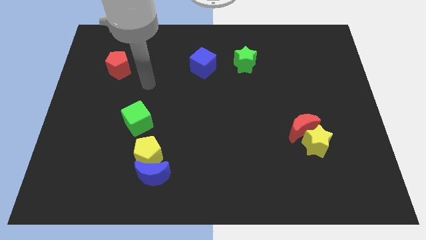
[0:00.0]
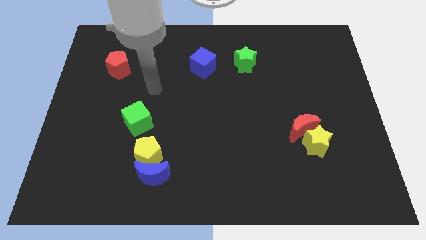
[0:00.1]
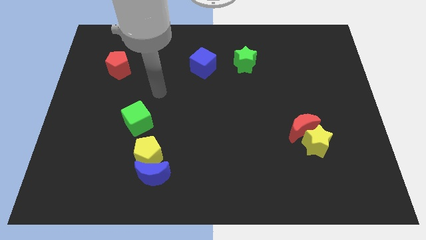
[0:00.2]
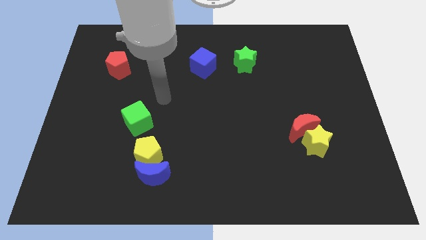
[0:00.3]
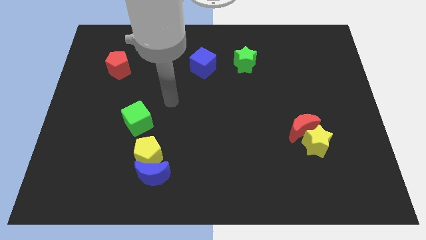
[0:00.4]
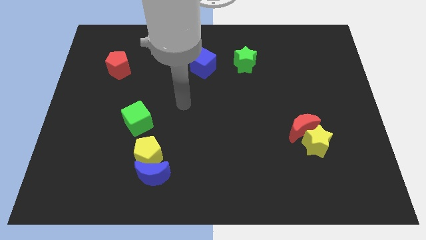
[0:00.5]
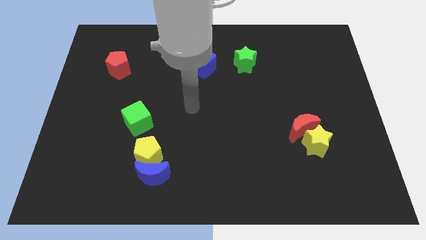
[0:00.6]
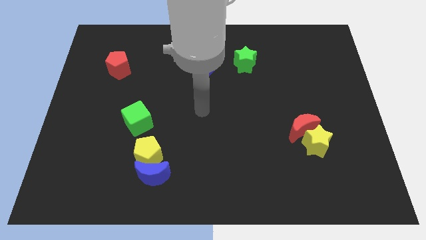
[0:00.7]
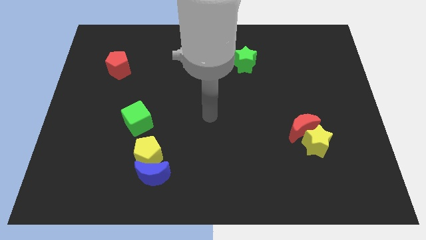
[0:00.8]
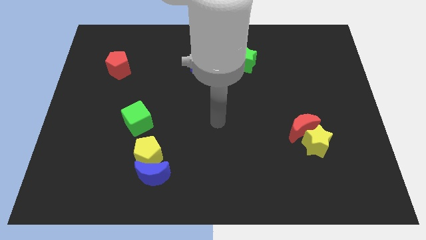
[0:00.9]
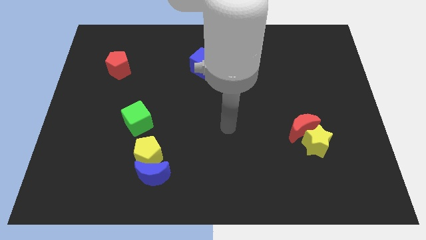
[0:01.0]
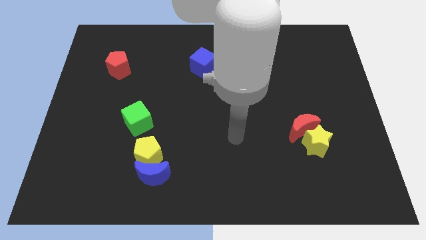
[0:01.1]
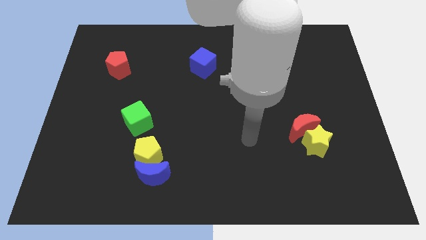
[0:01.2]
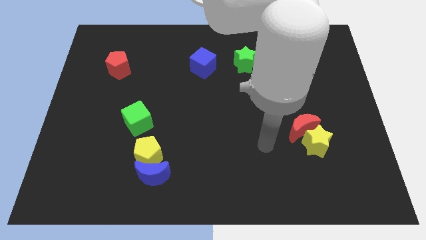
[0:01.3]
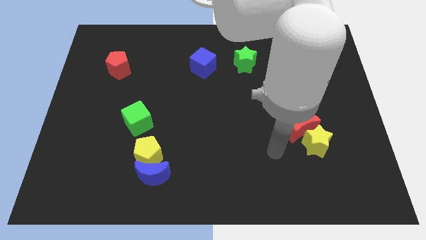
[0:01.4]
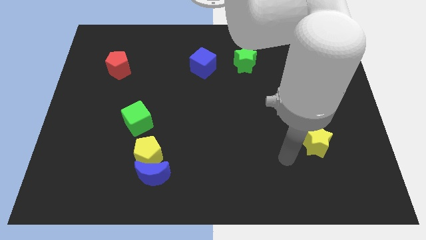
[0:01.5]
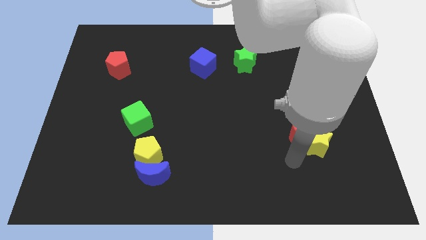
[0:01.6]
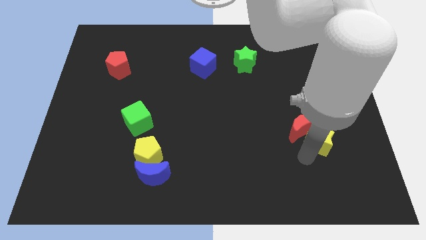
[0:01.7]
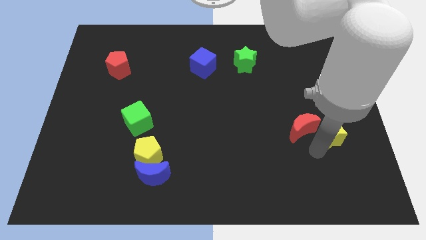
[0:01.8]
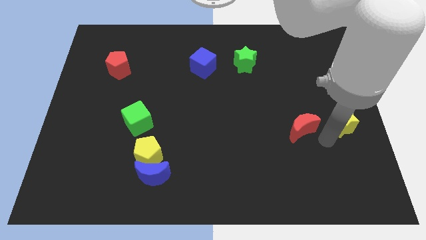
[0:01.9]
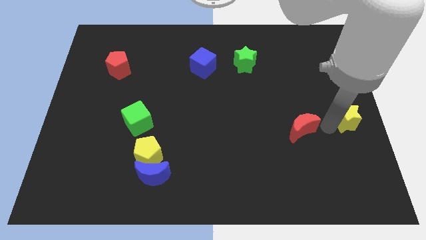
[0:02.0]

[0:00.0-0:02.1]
separate the red moon from the yellow star

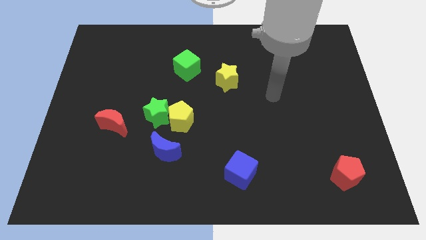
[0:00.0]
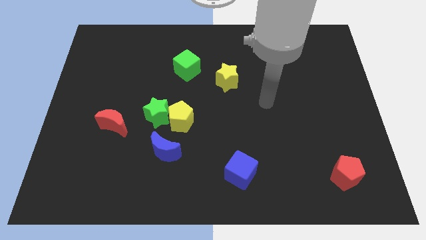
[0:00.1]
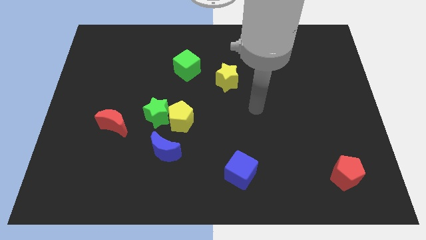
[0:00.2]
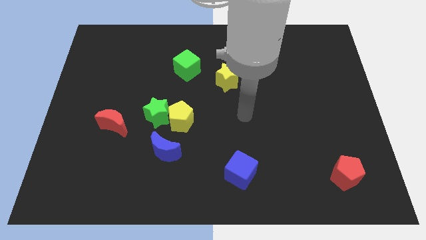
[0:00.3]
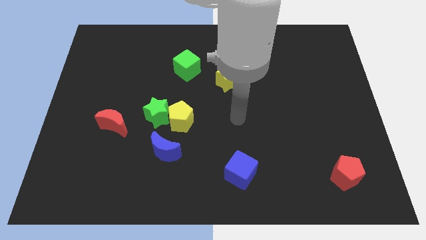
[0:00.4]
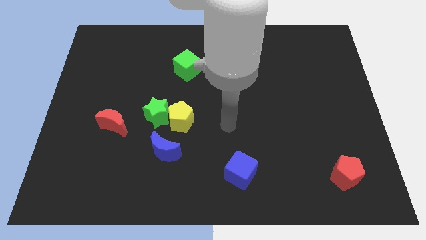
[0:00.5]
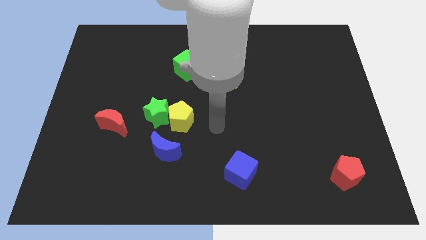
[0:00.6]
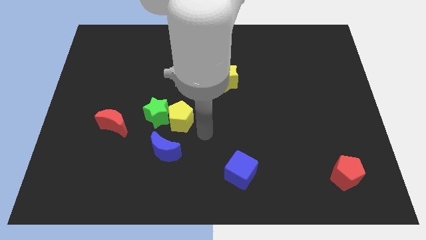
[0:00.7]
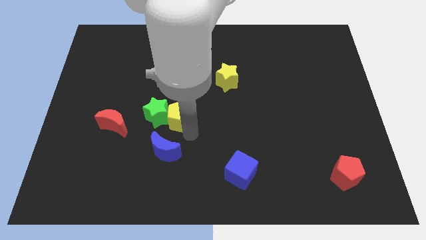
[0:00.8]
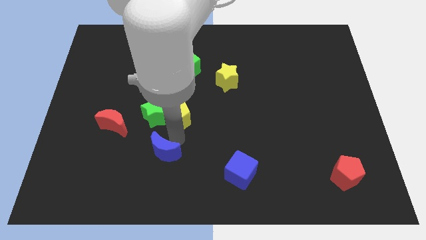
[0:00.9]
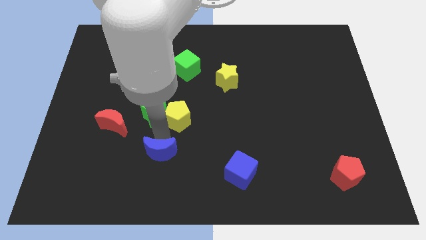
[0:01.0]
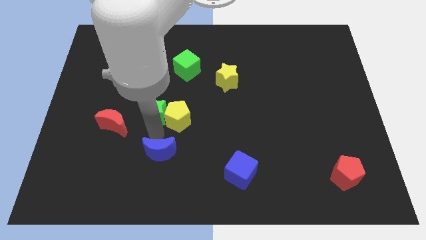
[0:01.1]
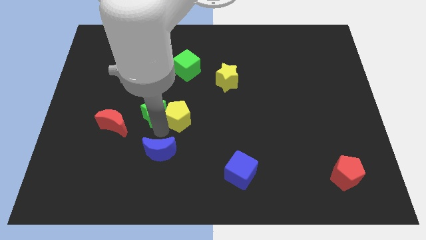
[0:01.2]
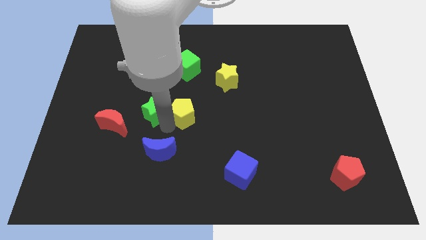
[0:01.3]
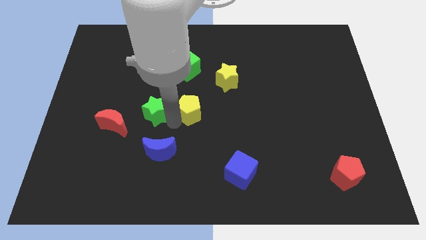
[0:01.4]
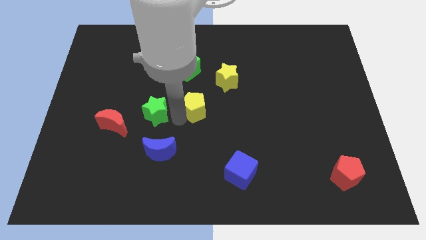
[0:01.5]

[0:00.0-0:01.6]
pull the yellow pentagon apart from the green star and blue moon

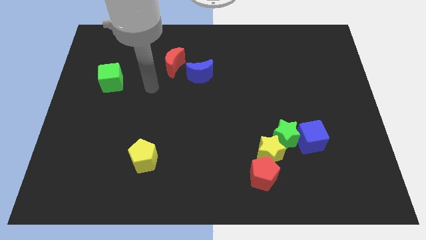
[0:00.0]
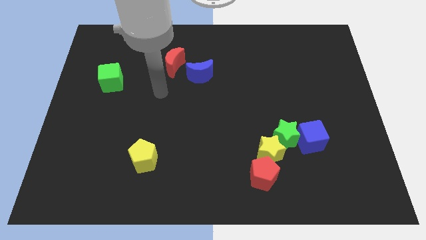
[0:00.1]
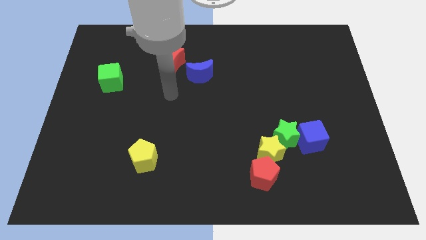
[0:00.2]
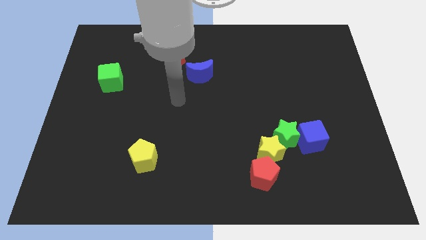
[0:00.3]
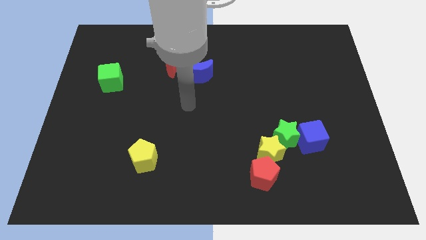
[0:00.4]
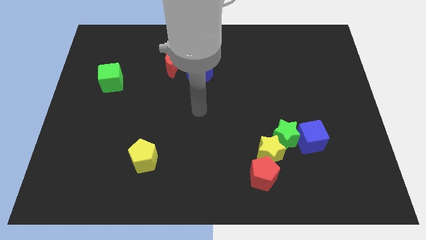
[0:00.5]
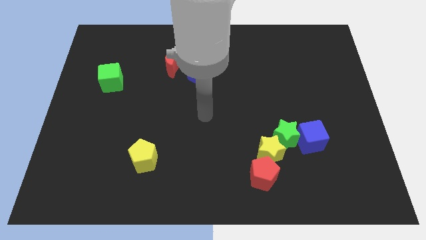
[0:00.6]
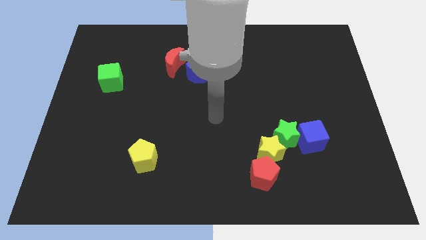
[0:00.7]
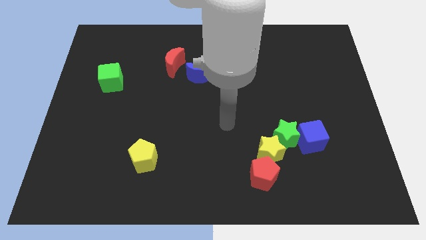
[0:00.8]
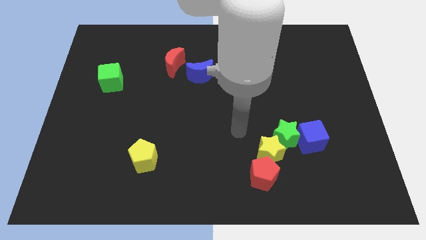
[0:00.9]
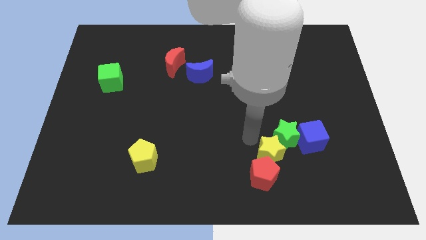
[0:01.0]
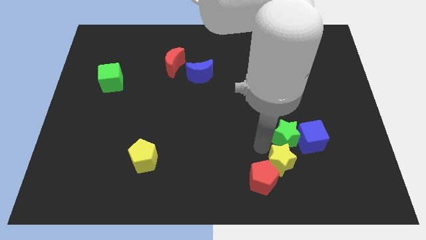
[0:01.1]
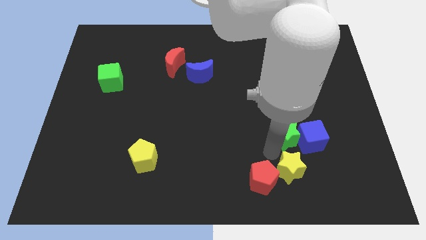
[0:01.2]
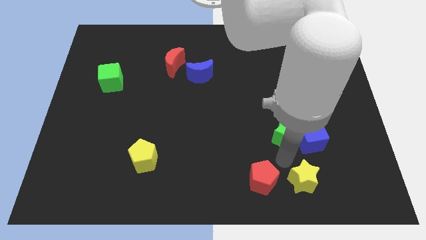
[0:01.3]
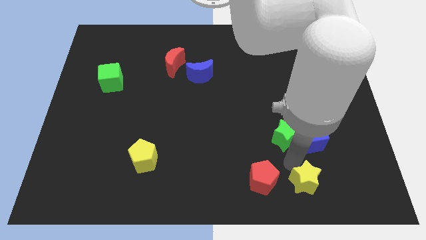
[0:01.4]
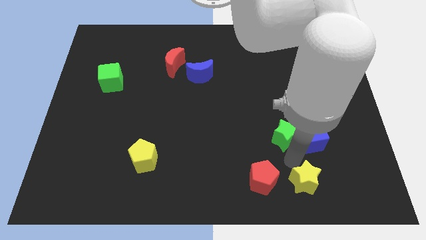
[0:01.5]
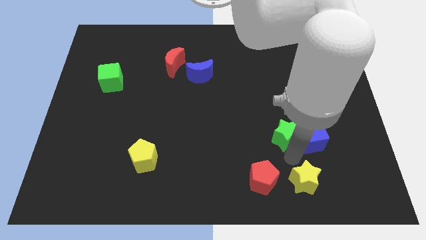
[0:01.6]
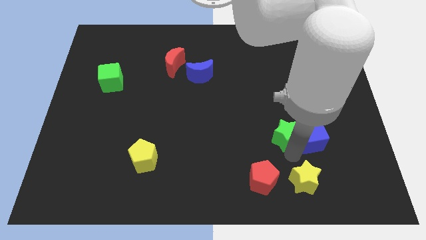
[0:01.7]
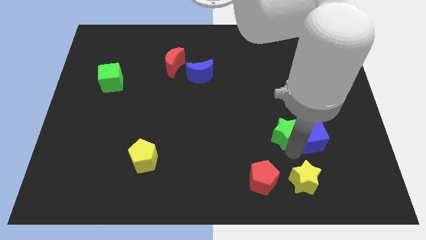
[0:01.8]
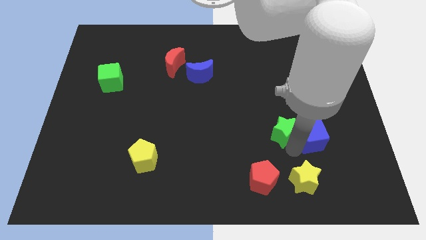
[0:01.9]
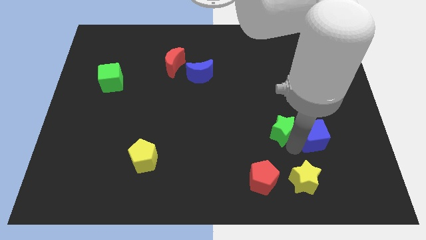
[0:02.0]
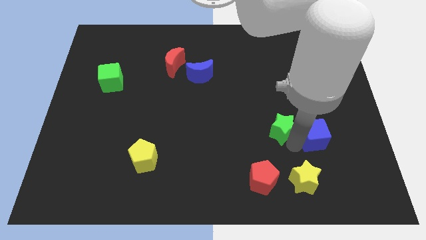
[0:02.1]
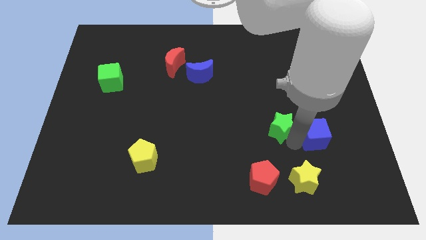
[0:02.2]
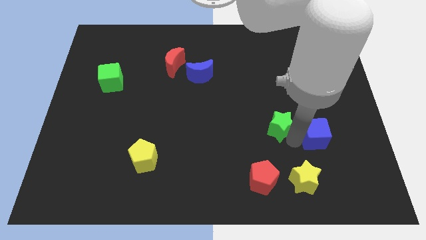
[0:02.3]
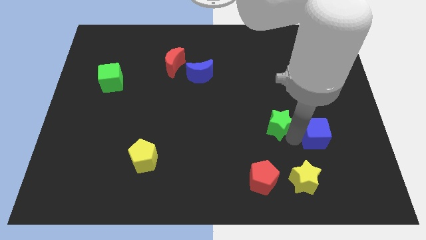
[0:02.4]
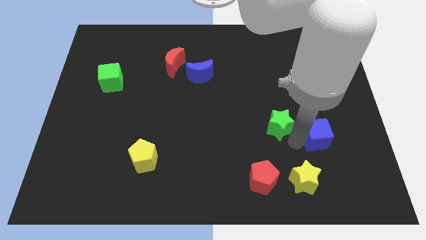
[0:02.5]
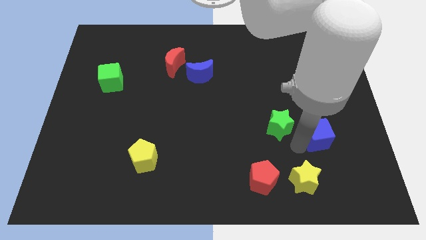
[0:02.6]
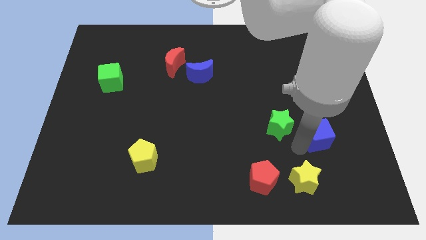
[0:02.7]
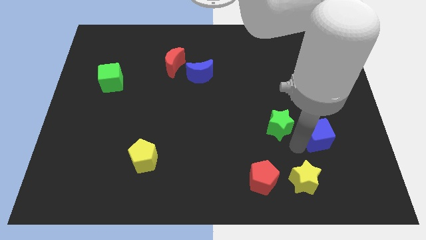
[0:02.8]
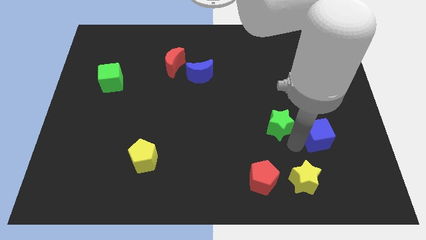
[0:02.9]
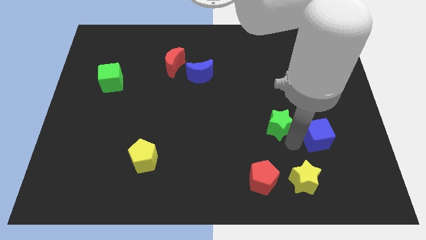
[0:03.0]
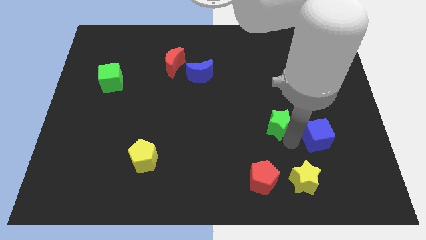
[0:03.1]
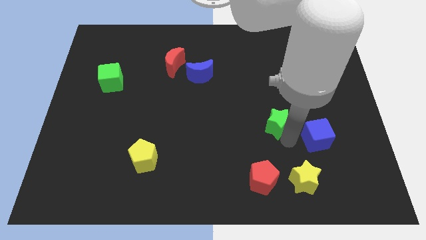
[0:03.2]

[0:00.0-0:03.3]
separate the green star from the blue cube and yellow star

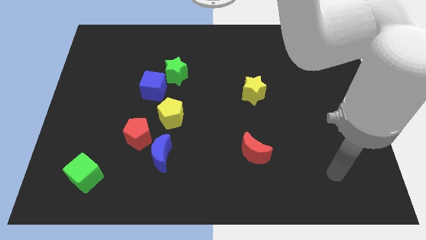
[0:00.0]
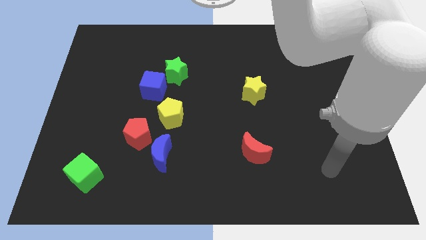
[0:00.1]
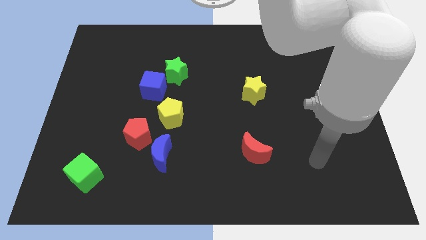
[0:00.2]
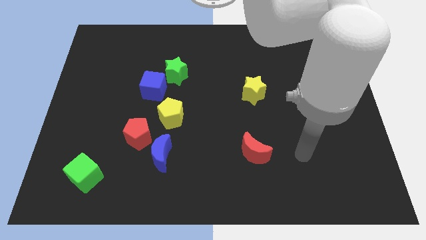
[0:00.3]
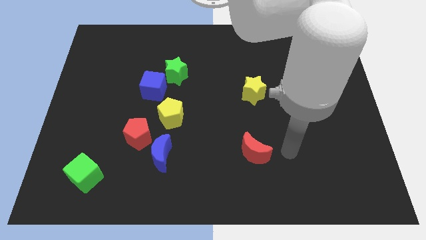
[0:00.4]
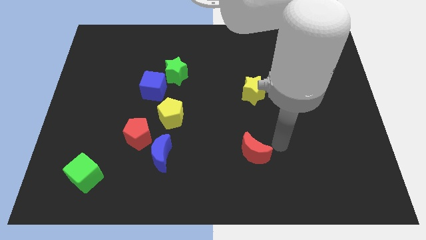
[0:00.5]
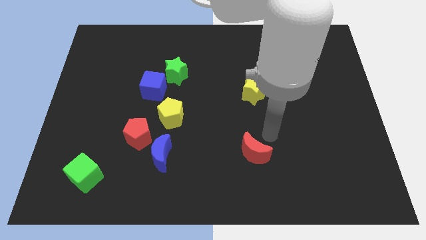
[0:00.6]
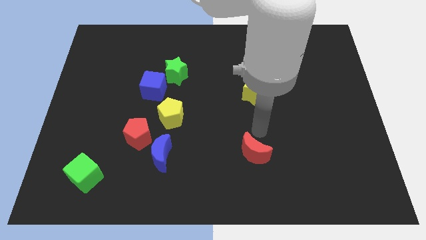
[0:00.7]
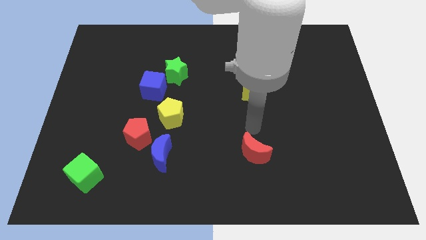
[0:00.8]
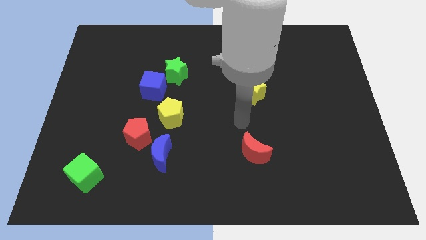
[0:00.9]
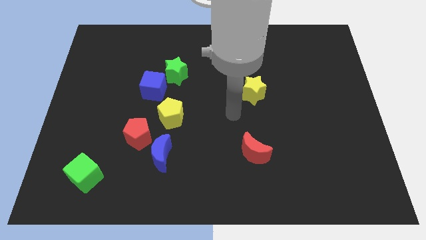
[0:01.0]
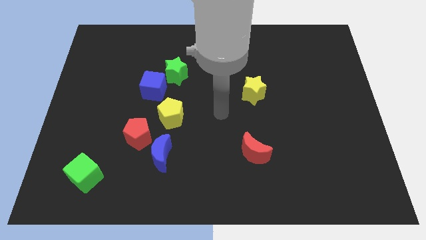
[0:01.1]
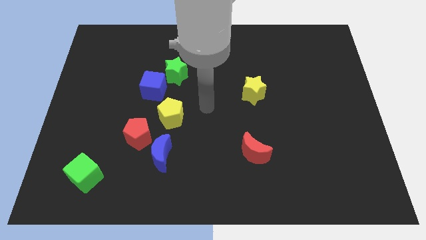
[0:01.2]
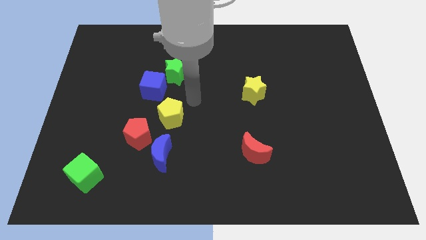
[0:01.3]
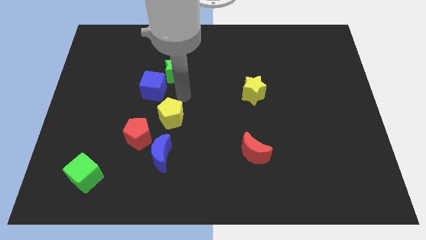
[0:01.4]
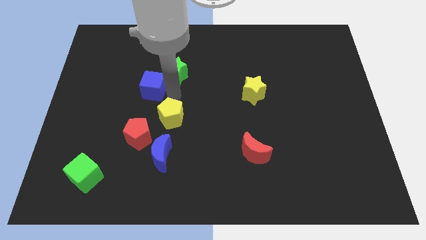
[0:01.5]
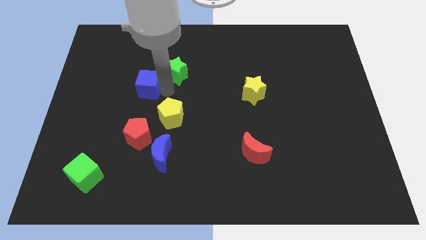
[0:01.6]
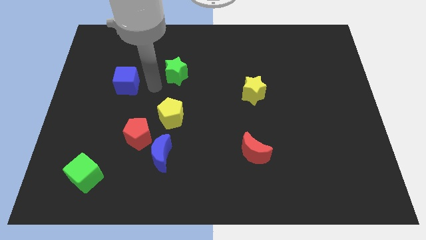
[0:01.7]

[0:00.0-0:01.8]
move the green star away from the blue cube

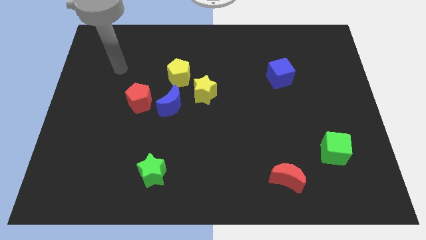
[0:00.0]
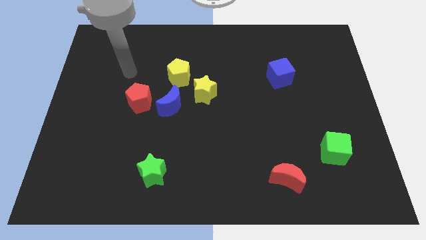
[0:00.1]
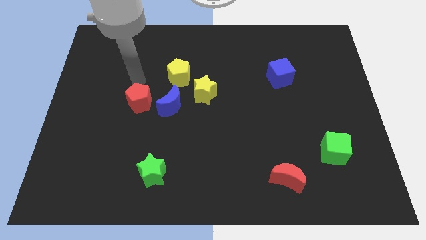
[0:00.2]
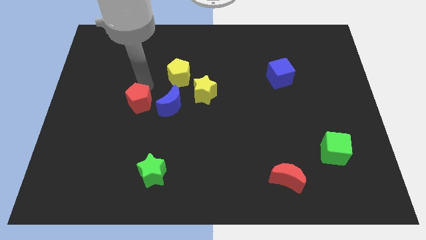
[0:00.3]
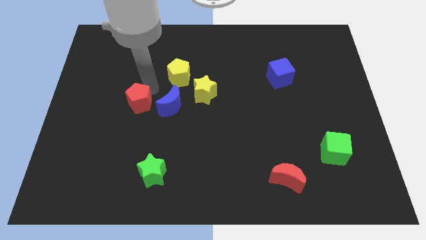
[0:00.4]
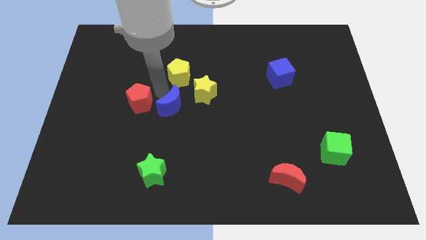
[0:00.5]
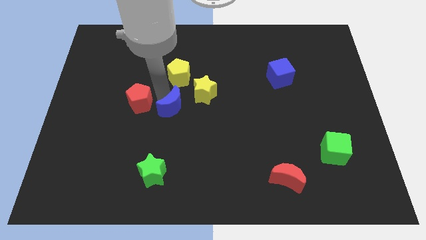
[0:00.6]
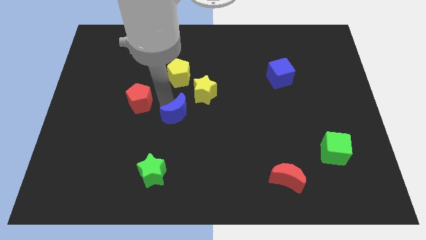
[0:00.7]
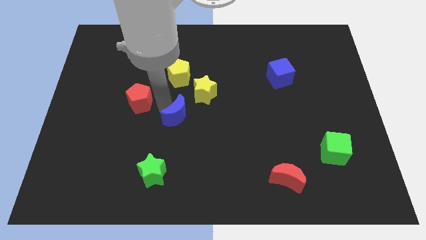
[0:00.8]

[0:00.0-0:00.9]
move the red pentagon away from the blue moon
